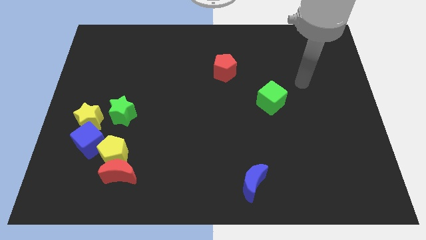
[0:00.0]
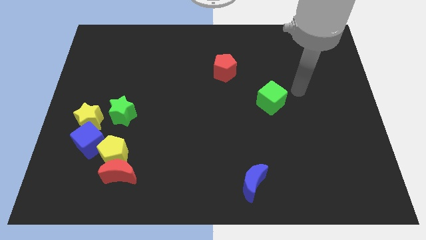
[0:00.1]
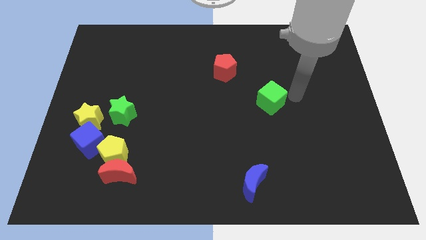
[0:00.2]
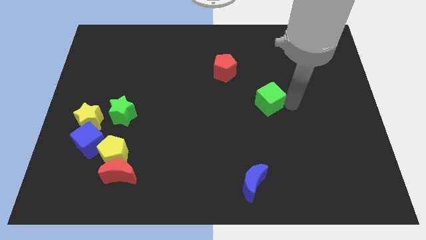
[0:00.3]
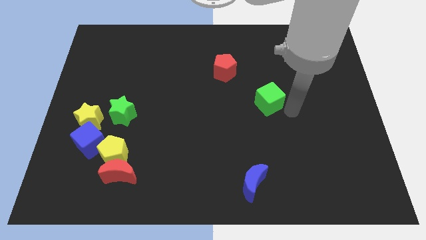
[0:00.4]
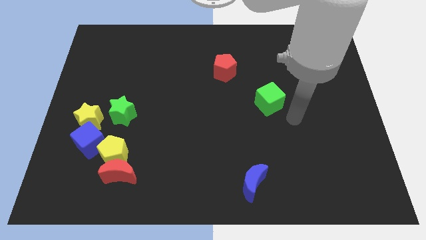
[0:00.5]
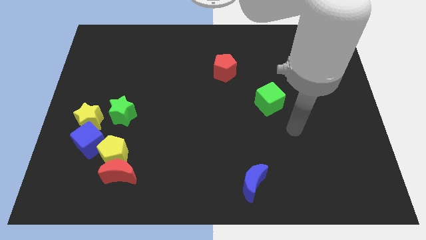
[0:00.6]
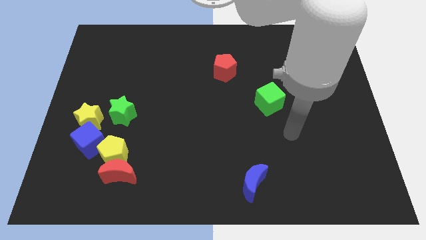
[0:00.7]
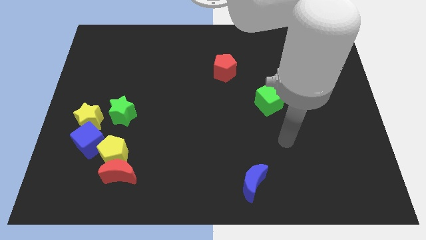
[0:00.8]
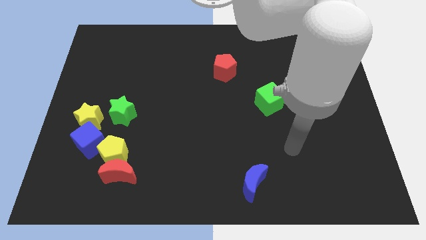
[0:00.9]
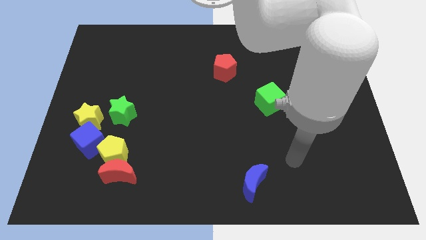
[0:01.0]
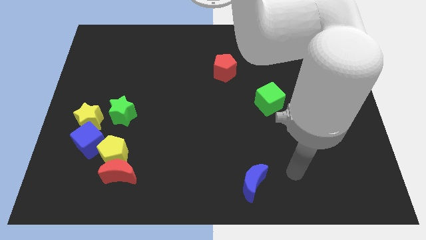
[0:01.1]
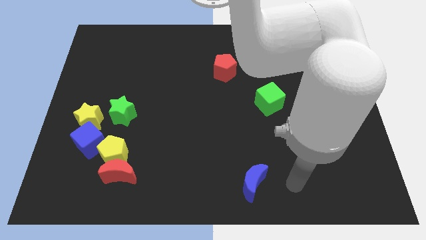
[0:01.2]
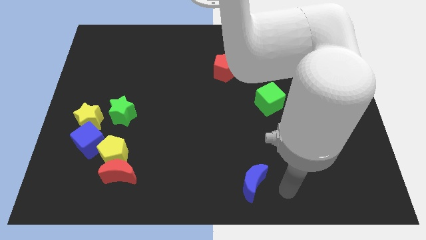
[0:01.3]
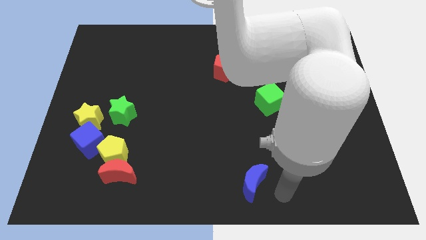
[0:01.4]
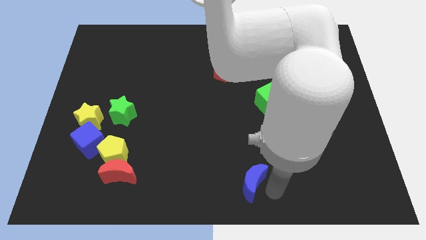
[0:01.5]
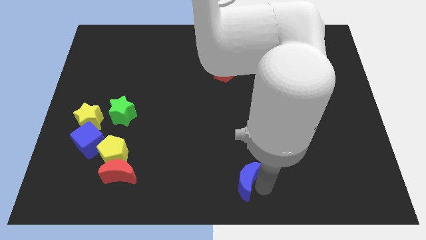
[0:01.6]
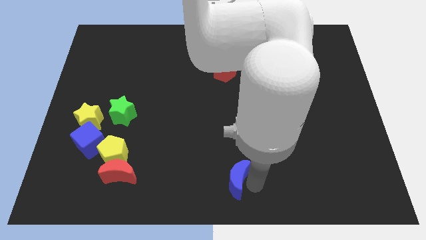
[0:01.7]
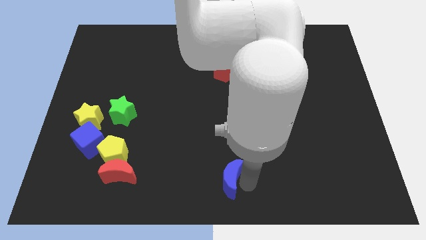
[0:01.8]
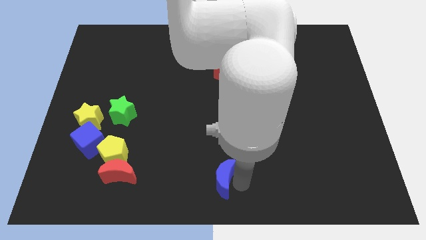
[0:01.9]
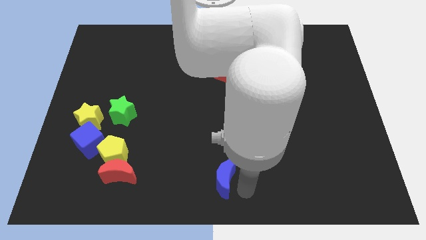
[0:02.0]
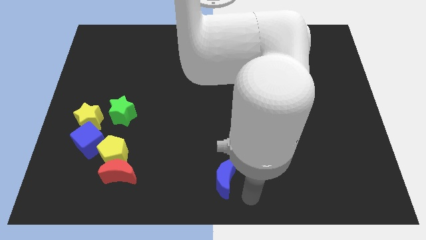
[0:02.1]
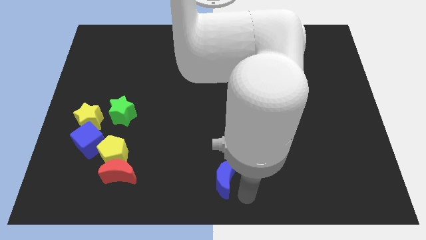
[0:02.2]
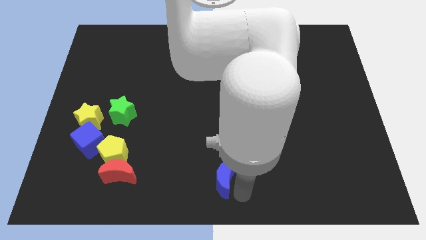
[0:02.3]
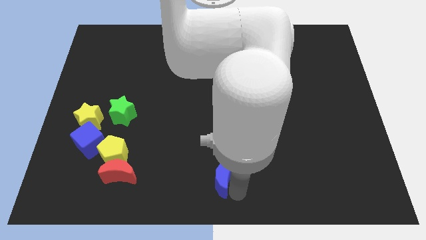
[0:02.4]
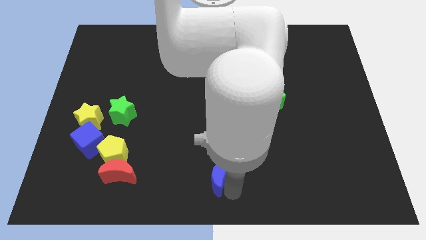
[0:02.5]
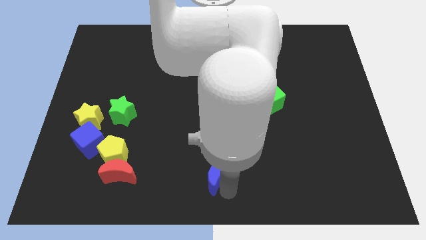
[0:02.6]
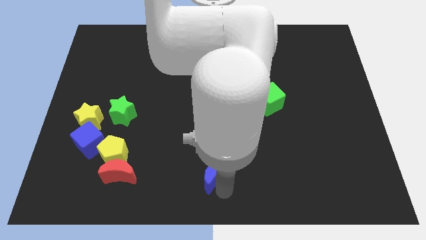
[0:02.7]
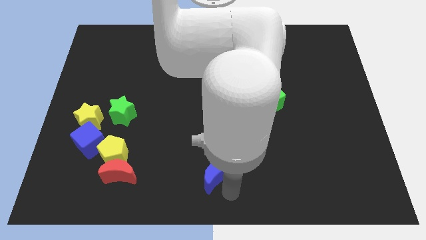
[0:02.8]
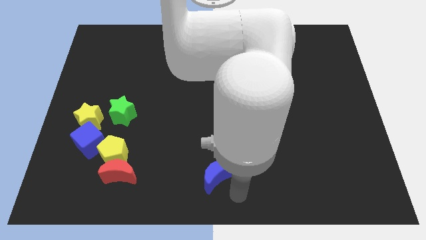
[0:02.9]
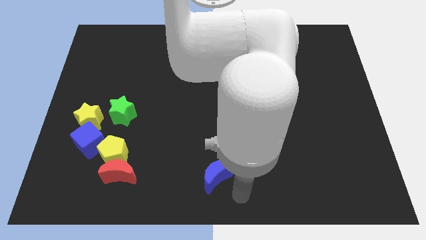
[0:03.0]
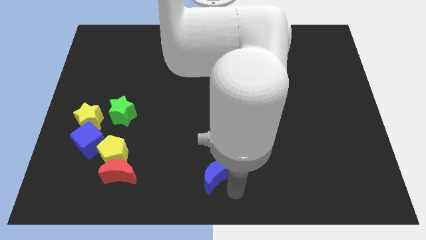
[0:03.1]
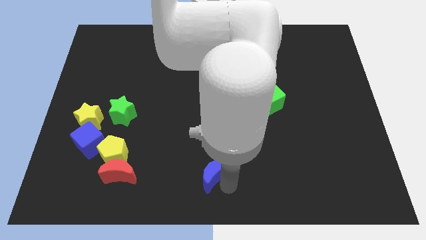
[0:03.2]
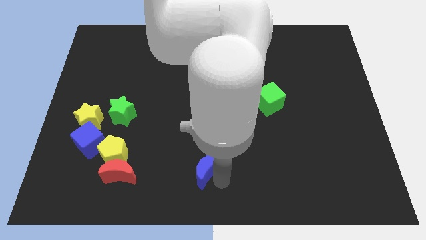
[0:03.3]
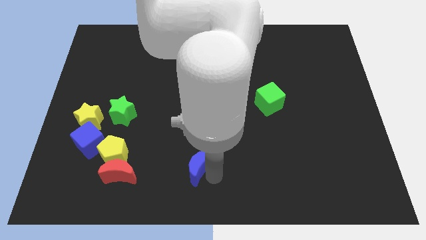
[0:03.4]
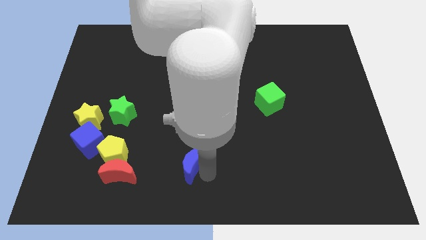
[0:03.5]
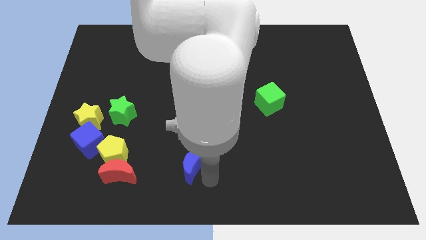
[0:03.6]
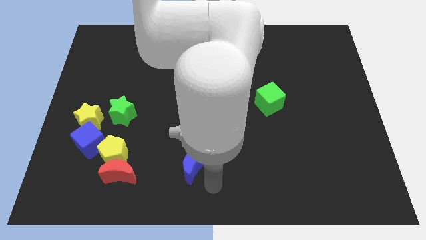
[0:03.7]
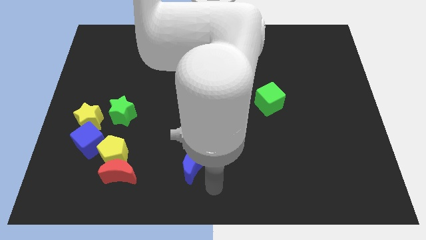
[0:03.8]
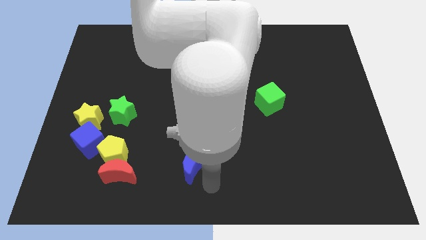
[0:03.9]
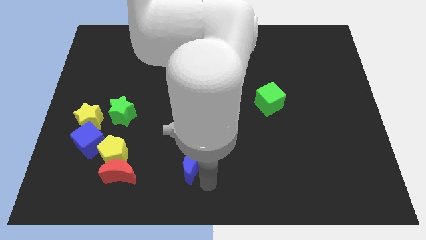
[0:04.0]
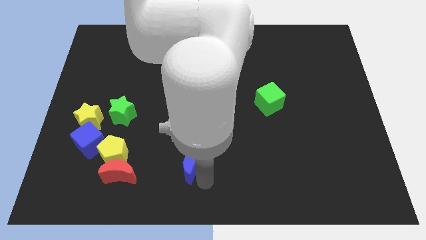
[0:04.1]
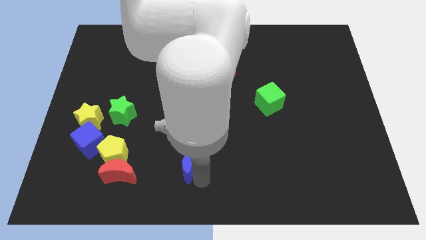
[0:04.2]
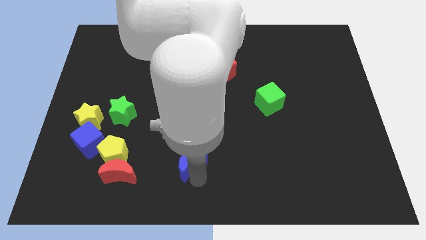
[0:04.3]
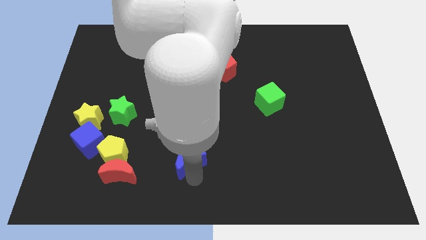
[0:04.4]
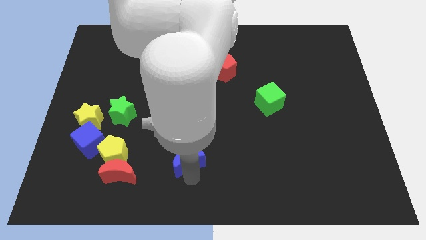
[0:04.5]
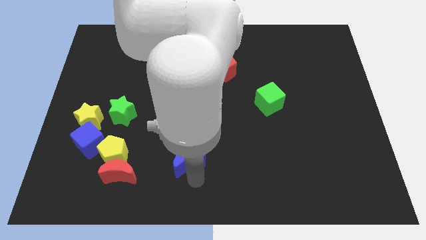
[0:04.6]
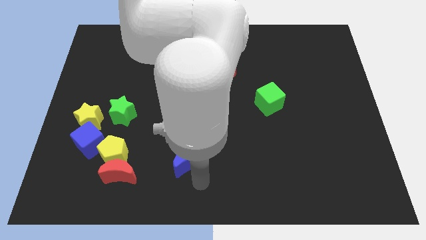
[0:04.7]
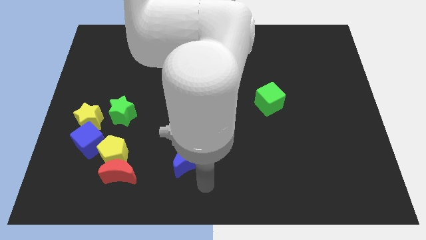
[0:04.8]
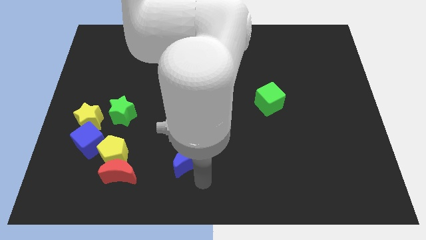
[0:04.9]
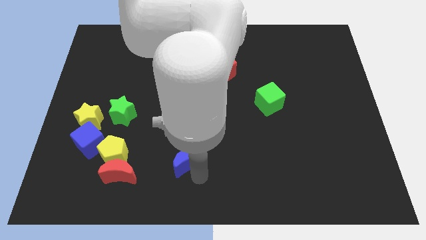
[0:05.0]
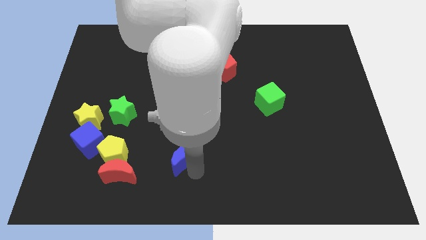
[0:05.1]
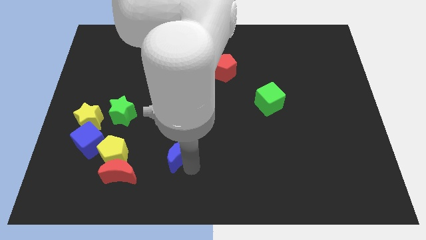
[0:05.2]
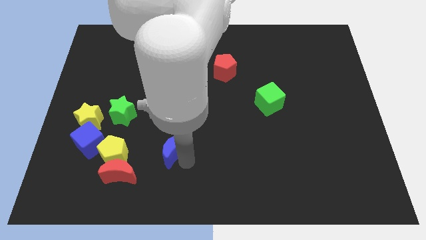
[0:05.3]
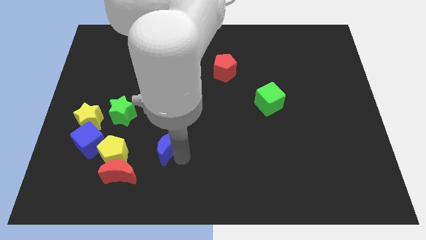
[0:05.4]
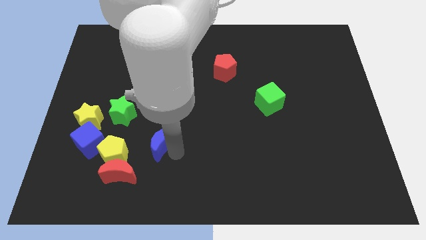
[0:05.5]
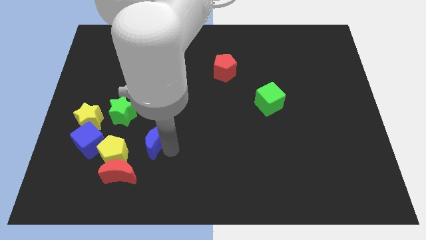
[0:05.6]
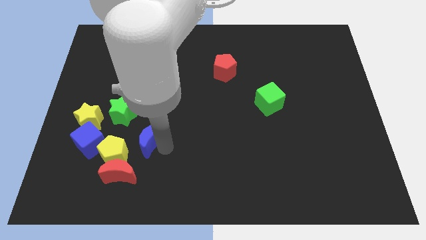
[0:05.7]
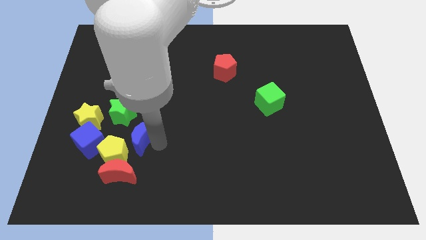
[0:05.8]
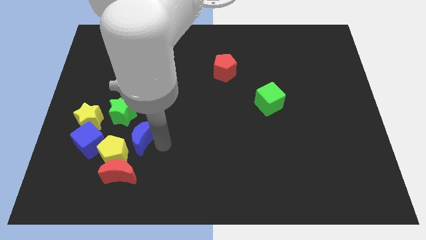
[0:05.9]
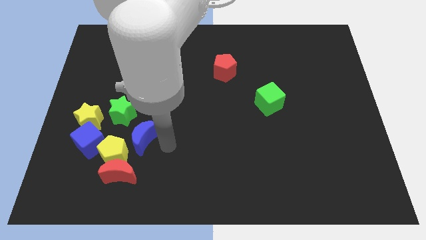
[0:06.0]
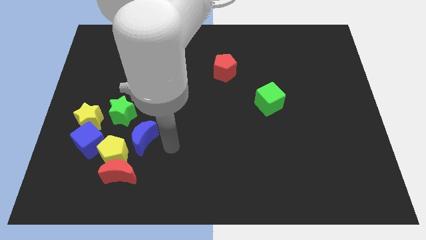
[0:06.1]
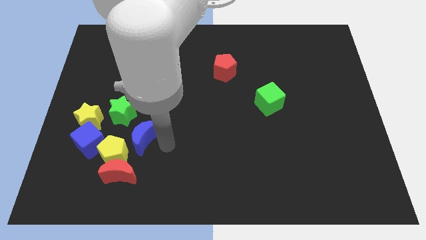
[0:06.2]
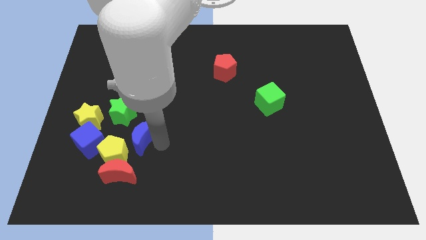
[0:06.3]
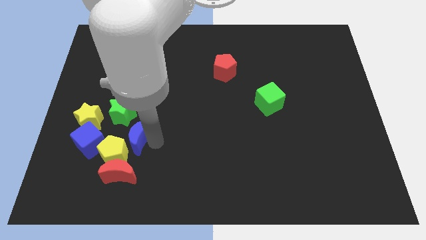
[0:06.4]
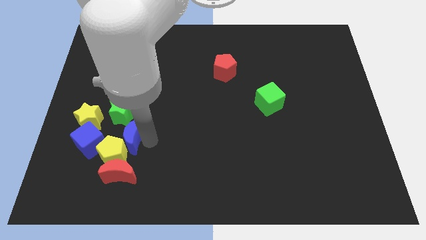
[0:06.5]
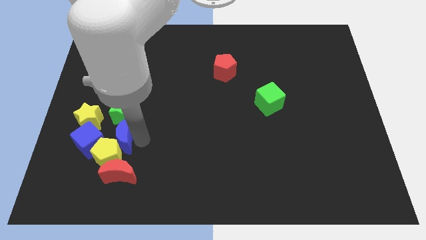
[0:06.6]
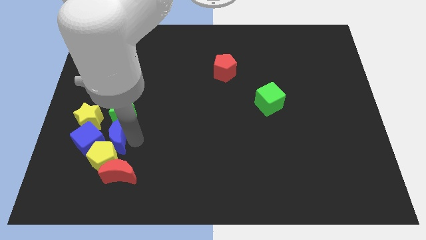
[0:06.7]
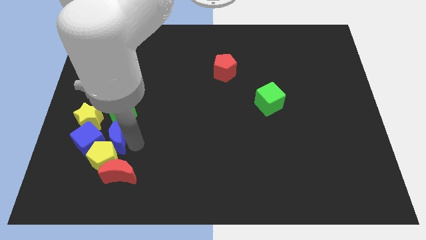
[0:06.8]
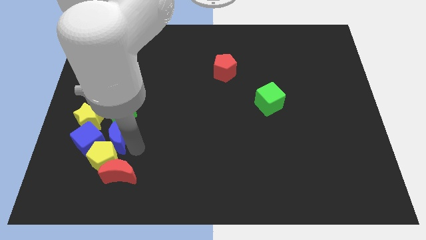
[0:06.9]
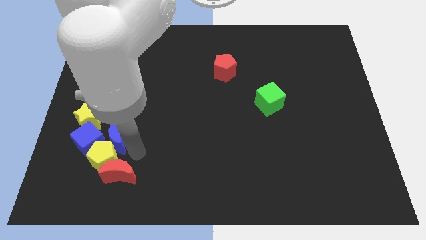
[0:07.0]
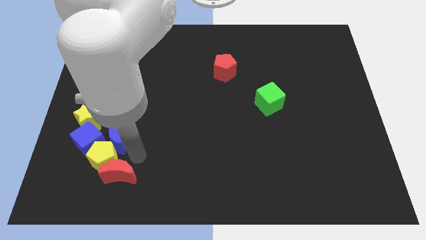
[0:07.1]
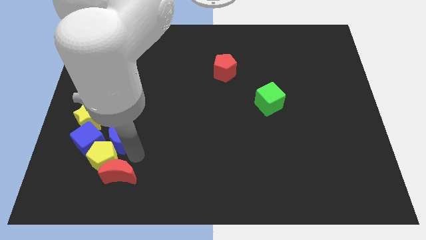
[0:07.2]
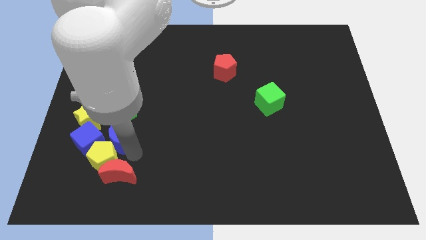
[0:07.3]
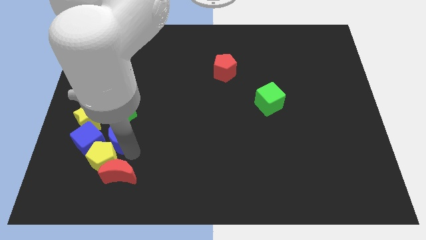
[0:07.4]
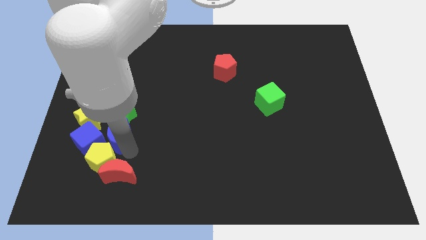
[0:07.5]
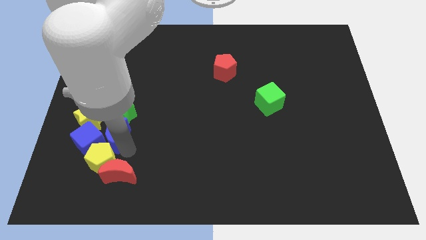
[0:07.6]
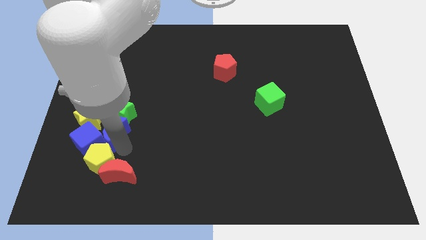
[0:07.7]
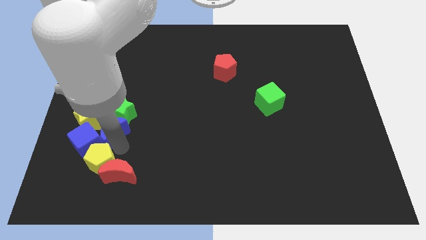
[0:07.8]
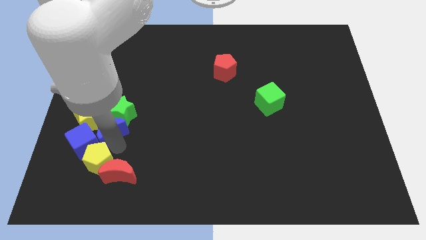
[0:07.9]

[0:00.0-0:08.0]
put the blue moon next to the yellow star
